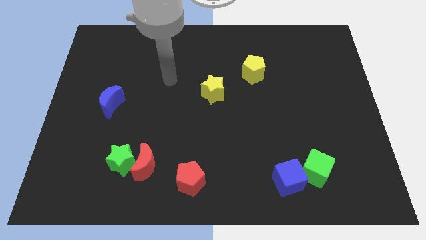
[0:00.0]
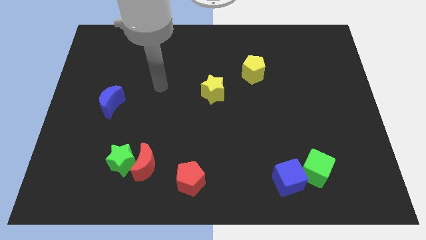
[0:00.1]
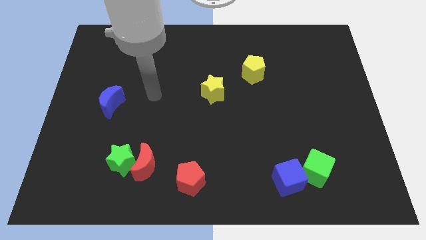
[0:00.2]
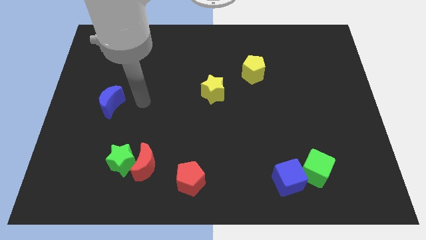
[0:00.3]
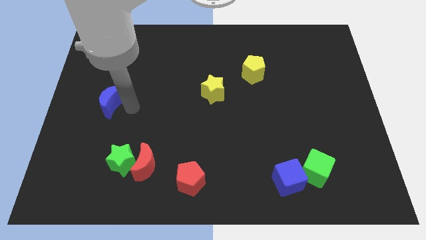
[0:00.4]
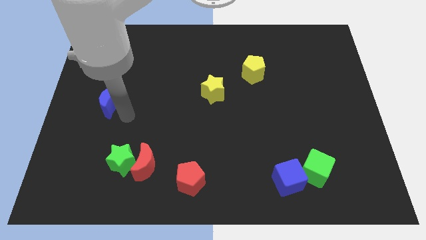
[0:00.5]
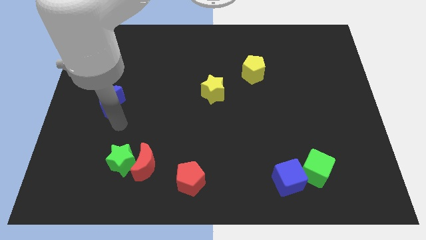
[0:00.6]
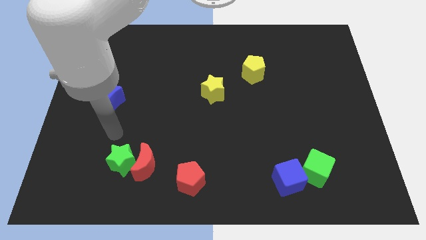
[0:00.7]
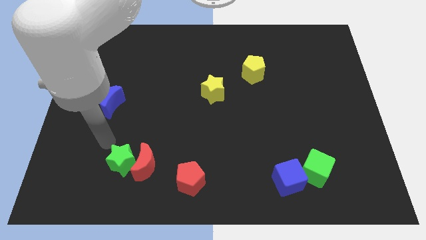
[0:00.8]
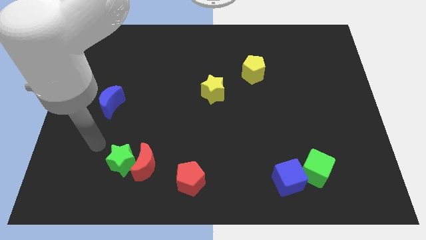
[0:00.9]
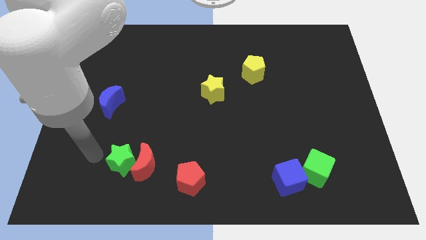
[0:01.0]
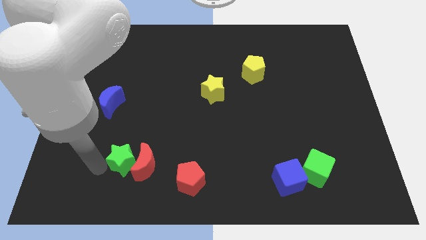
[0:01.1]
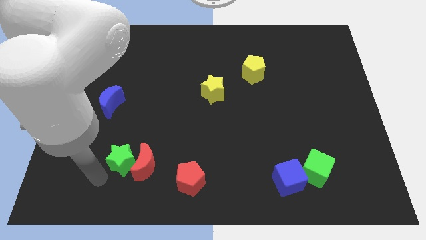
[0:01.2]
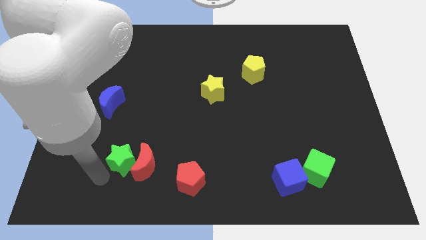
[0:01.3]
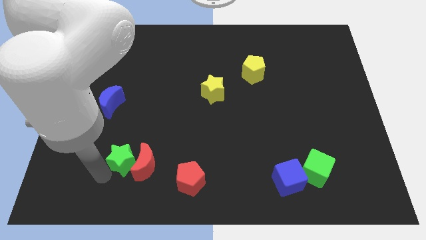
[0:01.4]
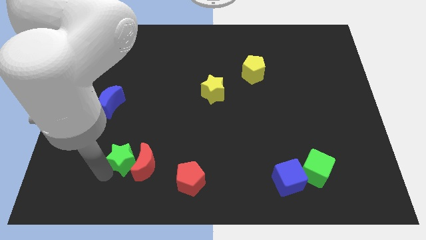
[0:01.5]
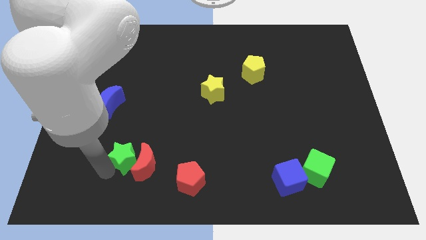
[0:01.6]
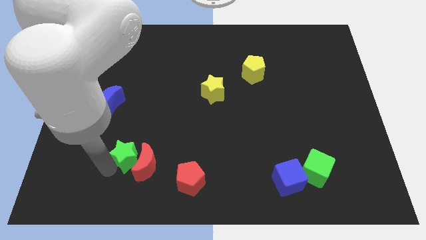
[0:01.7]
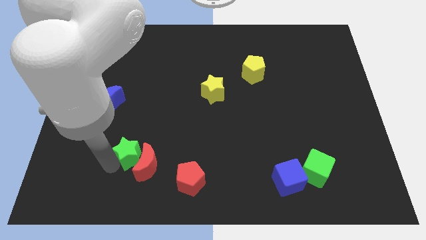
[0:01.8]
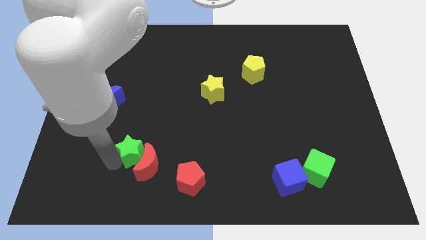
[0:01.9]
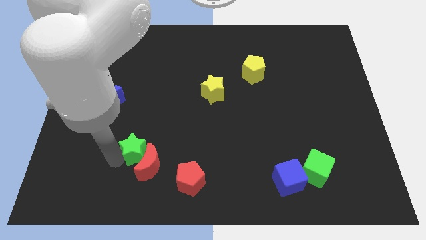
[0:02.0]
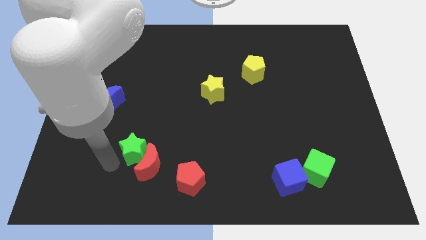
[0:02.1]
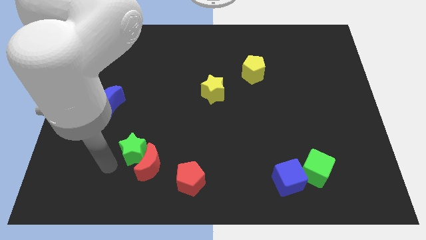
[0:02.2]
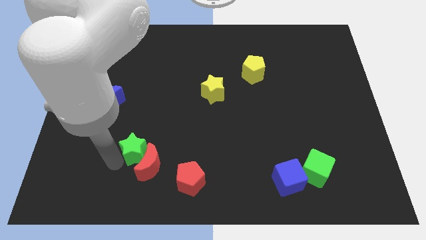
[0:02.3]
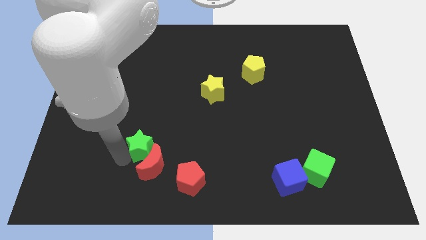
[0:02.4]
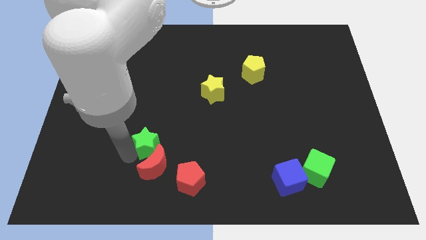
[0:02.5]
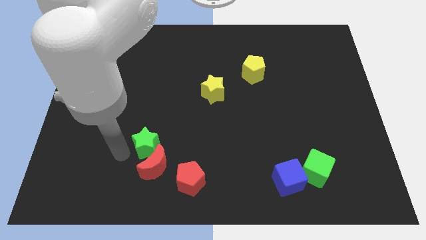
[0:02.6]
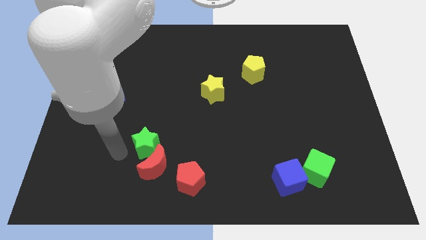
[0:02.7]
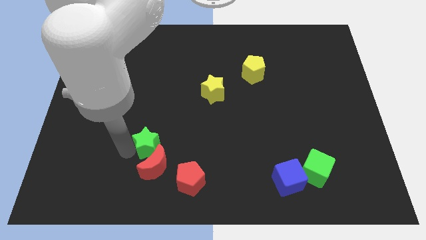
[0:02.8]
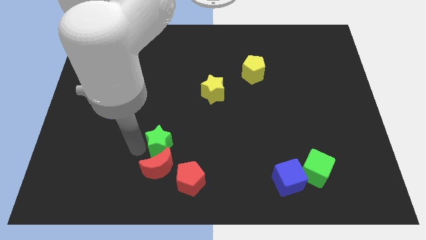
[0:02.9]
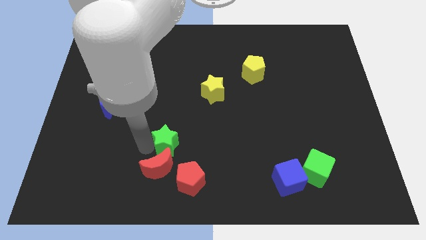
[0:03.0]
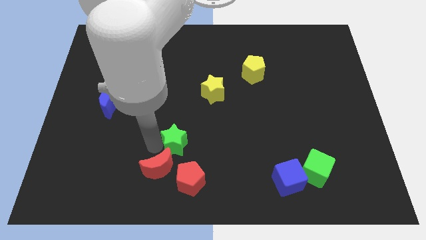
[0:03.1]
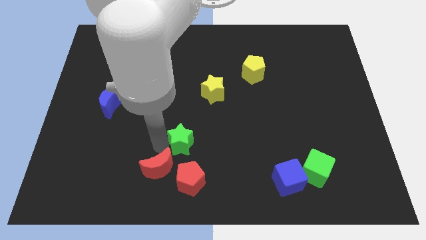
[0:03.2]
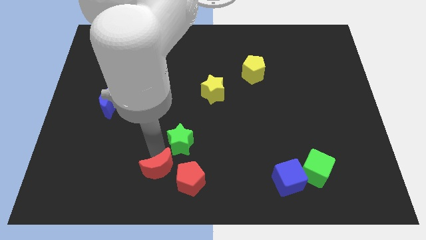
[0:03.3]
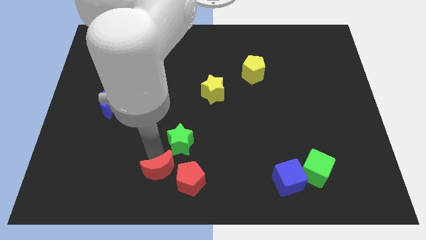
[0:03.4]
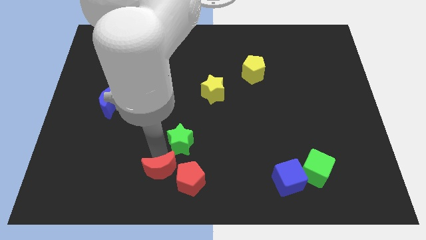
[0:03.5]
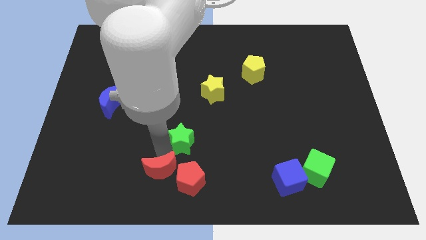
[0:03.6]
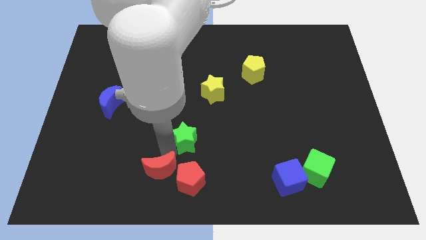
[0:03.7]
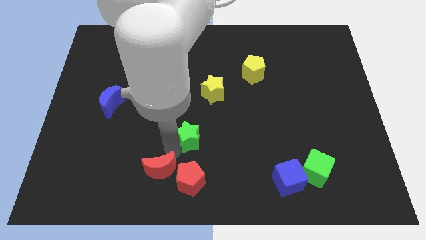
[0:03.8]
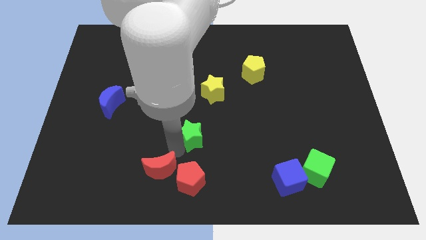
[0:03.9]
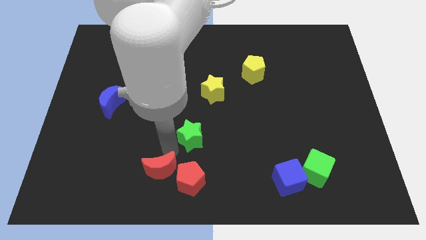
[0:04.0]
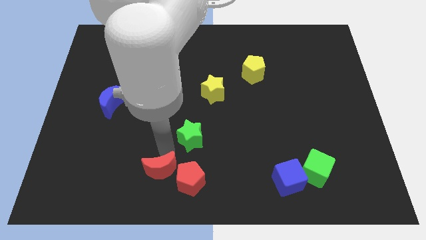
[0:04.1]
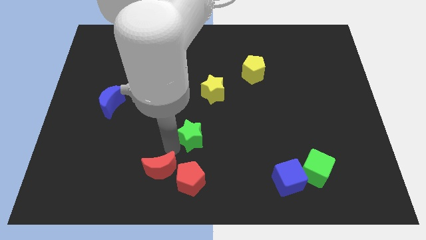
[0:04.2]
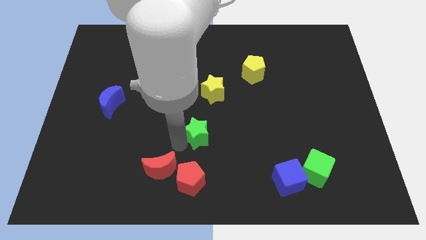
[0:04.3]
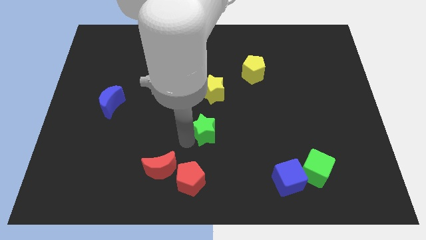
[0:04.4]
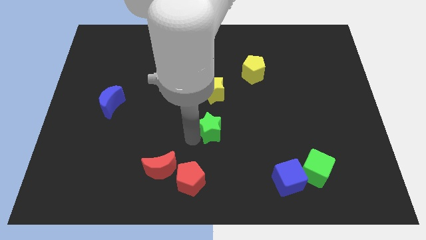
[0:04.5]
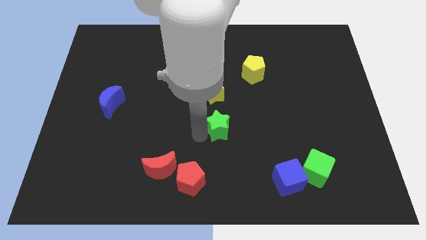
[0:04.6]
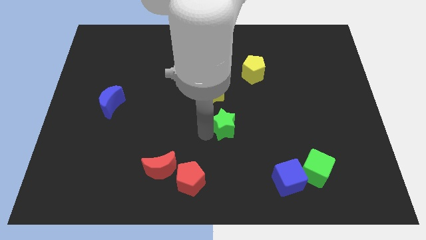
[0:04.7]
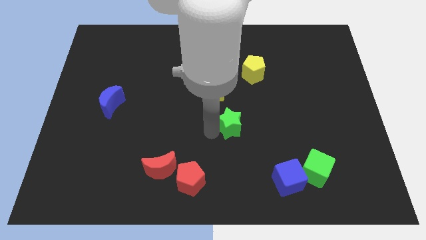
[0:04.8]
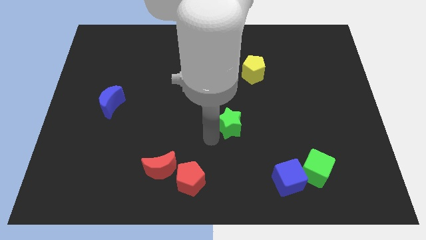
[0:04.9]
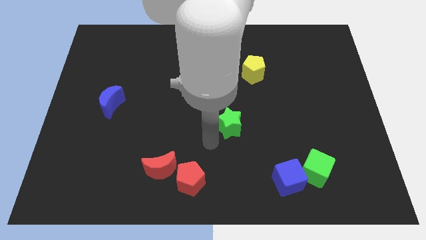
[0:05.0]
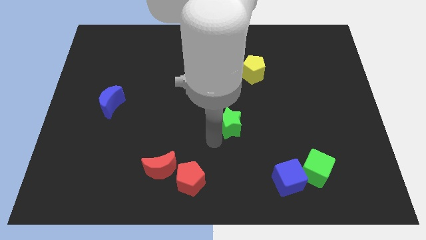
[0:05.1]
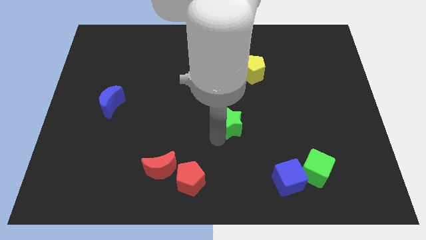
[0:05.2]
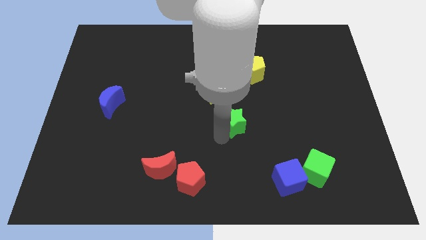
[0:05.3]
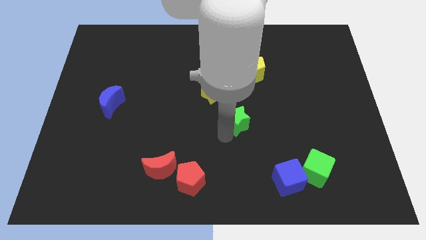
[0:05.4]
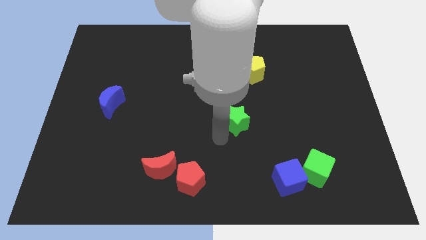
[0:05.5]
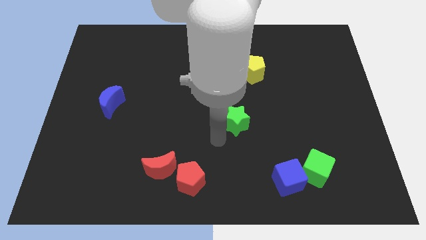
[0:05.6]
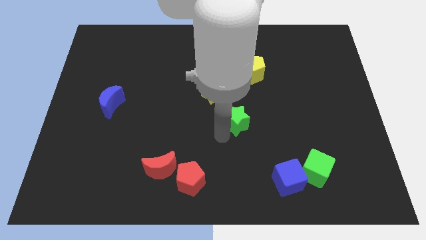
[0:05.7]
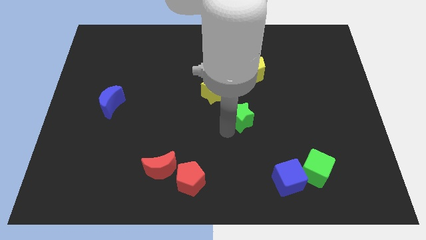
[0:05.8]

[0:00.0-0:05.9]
put the green star to the bottom side of the yellow pentagon
